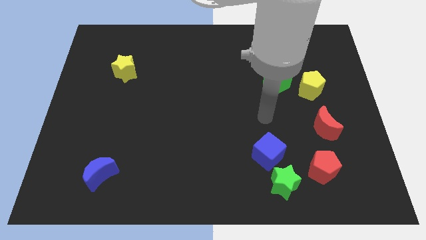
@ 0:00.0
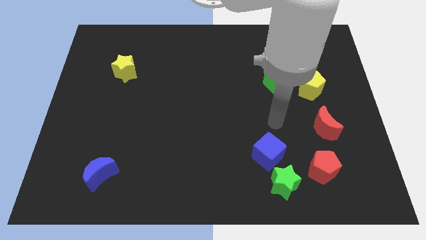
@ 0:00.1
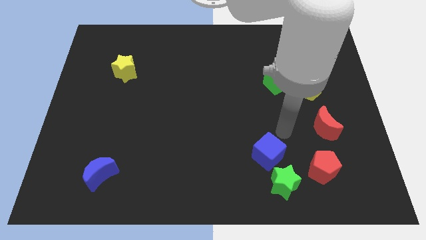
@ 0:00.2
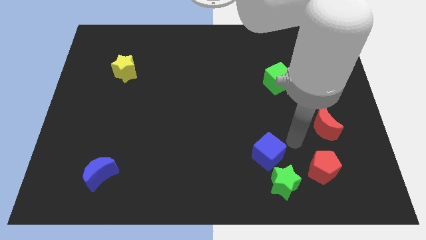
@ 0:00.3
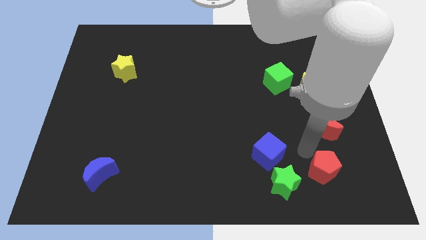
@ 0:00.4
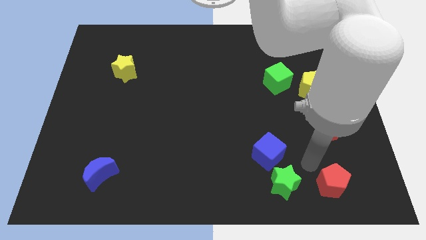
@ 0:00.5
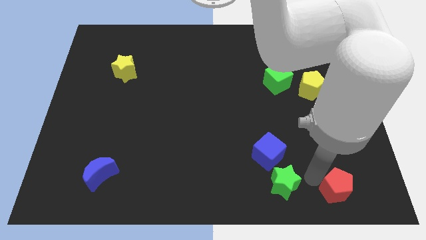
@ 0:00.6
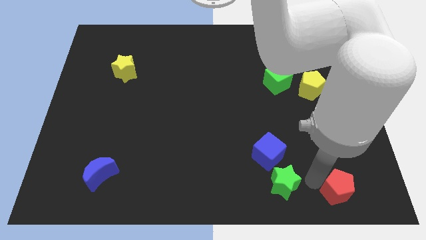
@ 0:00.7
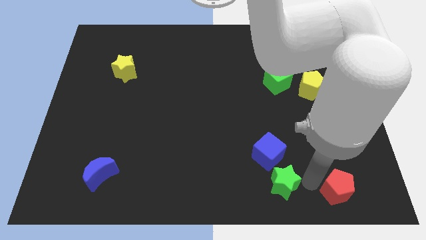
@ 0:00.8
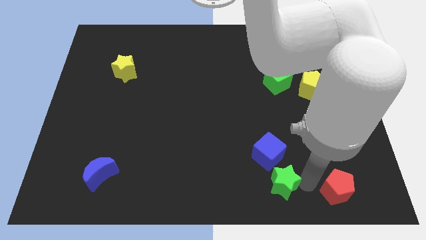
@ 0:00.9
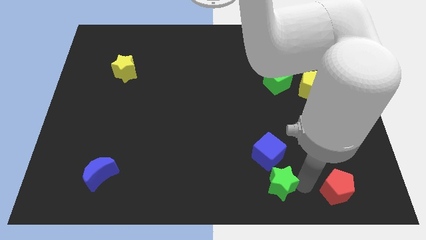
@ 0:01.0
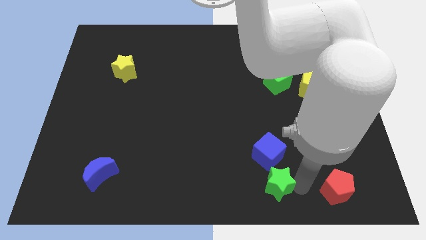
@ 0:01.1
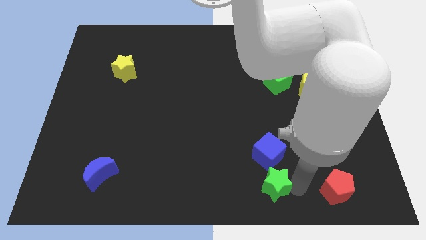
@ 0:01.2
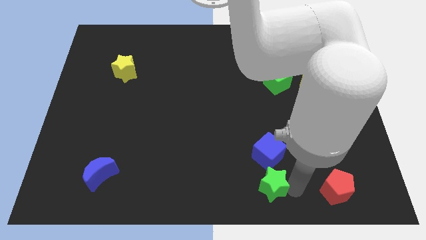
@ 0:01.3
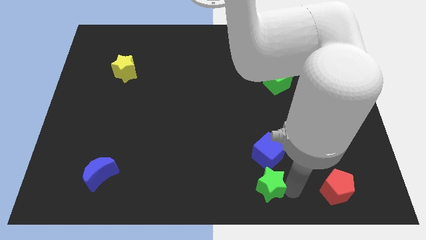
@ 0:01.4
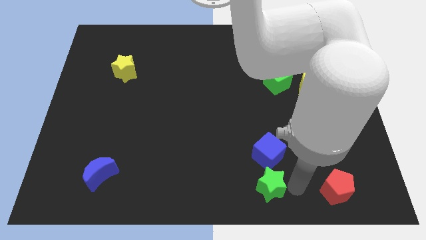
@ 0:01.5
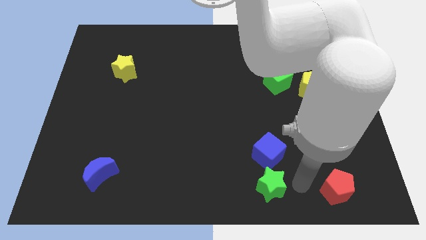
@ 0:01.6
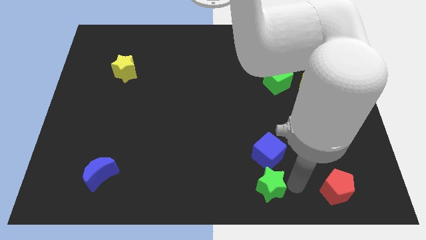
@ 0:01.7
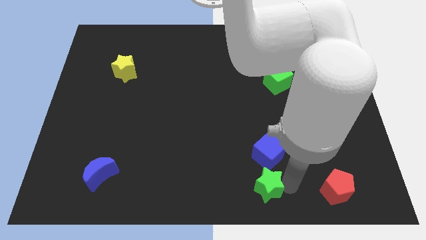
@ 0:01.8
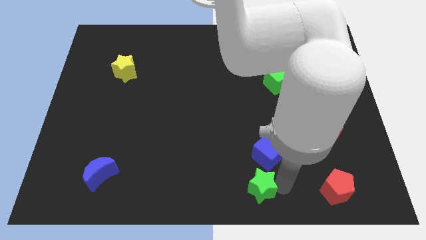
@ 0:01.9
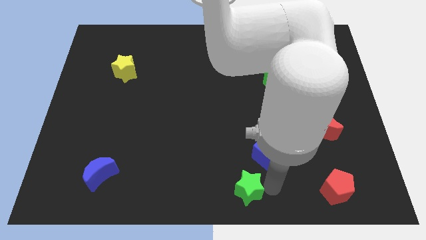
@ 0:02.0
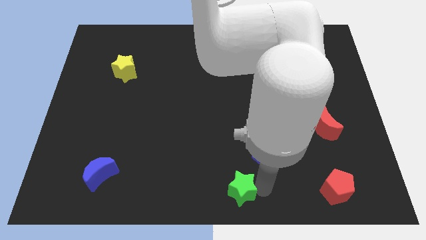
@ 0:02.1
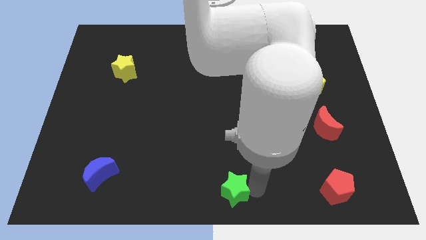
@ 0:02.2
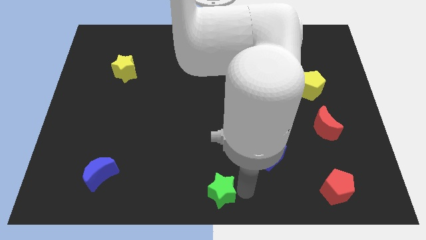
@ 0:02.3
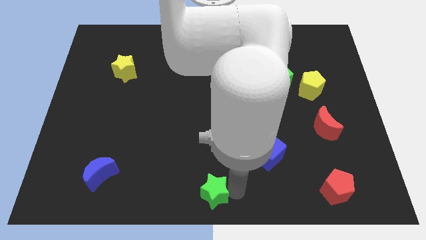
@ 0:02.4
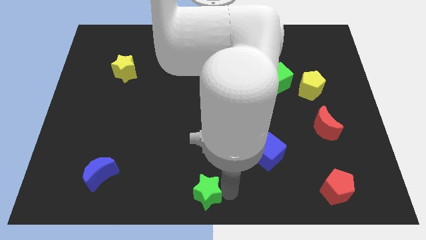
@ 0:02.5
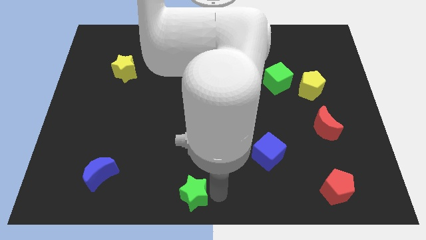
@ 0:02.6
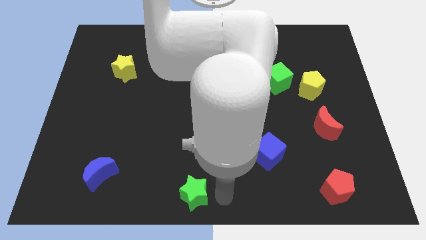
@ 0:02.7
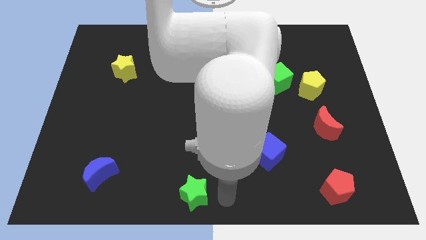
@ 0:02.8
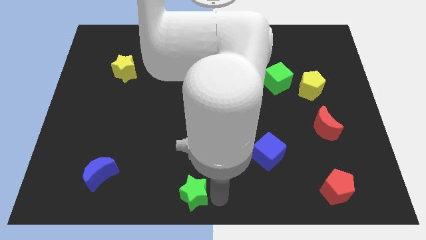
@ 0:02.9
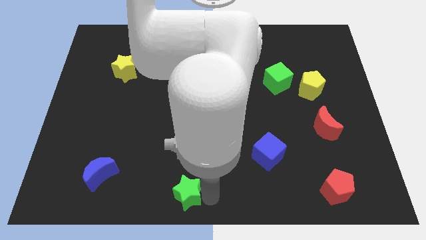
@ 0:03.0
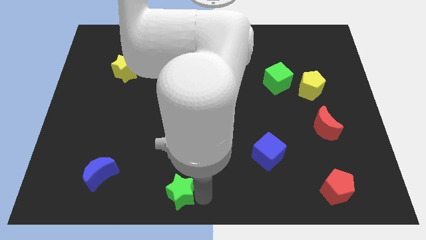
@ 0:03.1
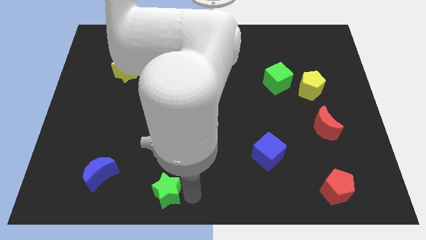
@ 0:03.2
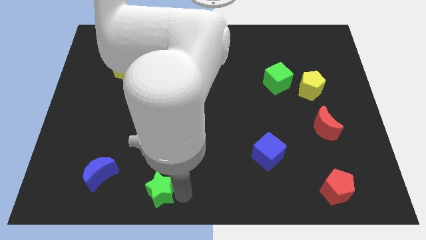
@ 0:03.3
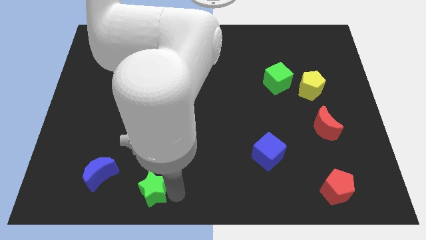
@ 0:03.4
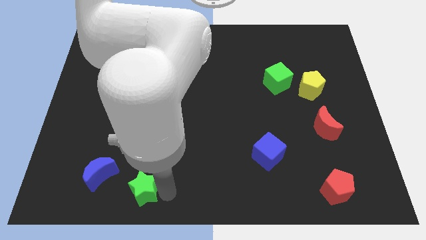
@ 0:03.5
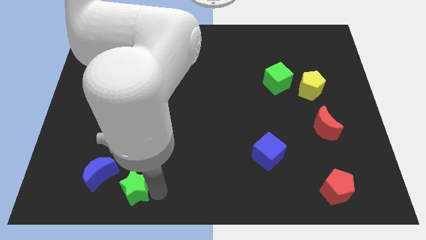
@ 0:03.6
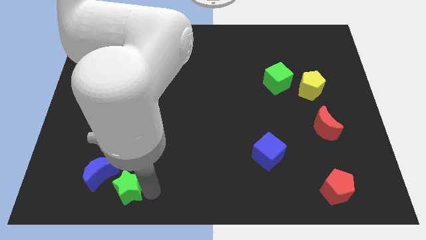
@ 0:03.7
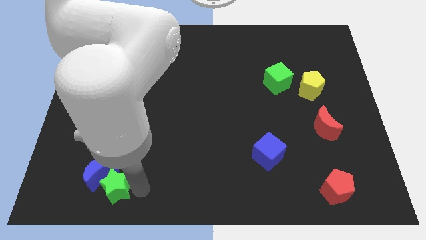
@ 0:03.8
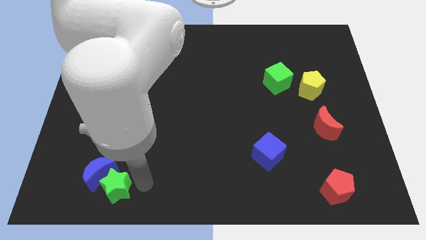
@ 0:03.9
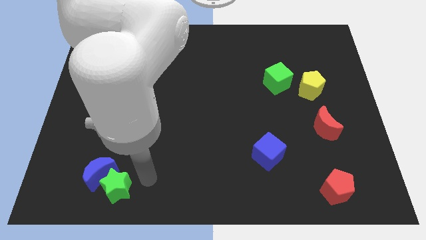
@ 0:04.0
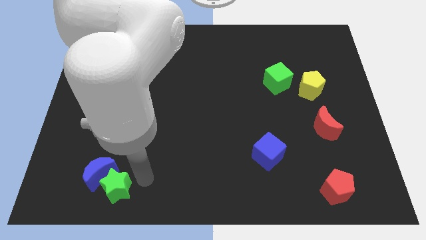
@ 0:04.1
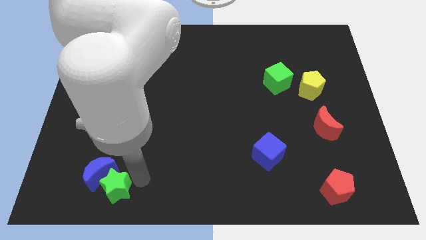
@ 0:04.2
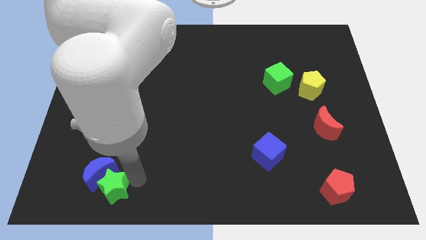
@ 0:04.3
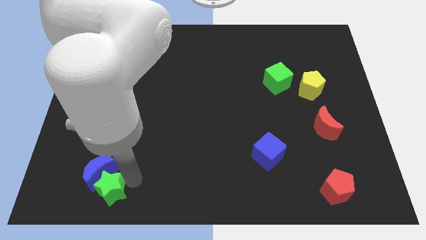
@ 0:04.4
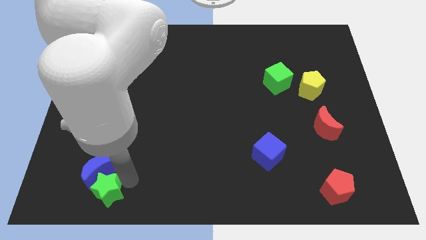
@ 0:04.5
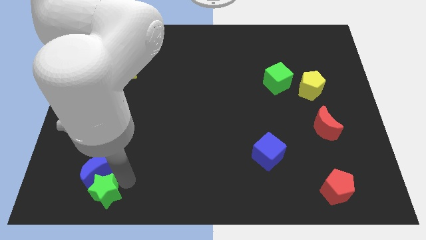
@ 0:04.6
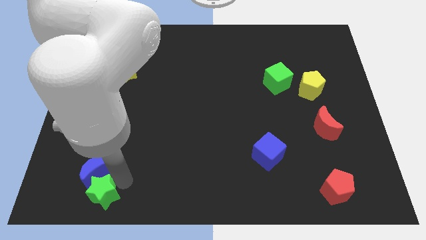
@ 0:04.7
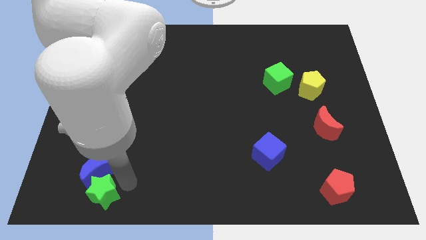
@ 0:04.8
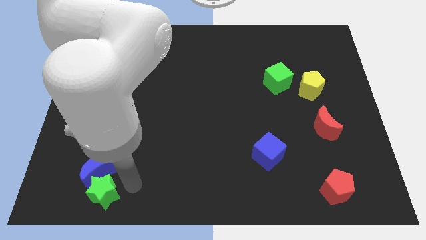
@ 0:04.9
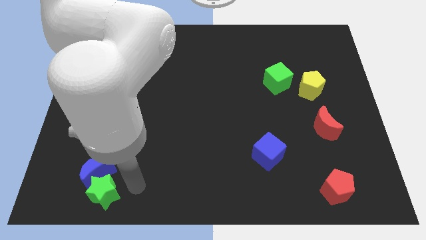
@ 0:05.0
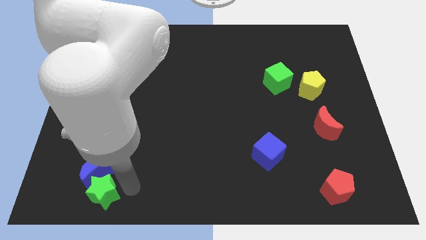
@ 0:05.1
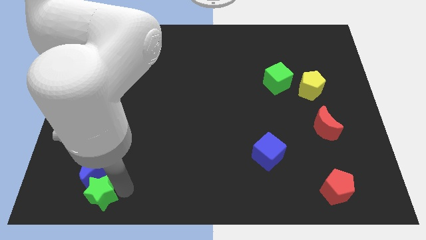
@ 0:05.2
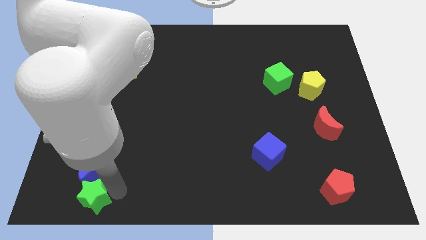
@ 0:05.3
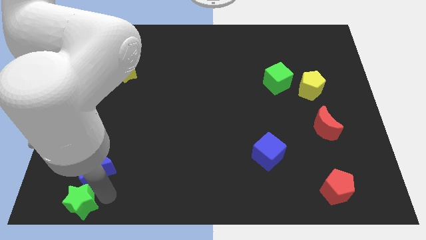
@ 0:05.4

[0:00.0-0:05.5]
put the green star to the bottom left

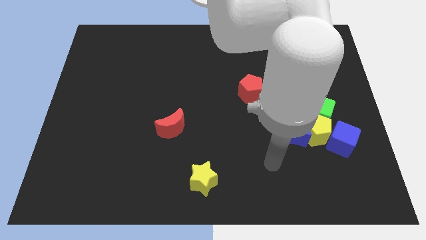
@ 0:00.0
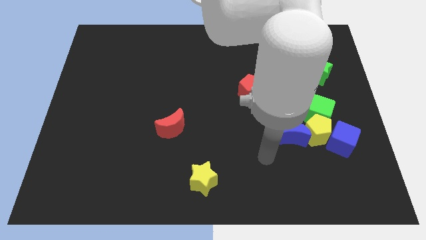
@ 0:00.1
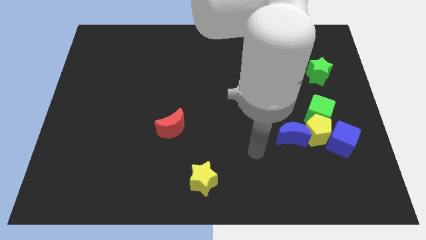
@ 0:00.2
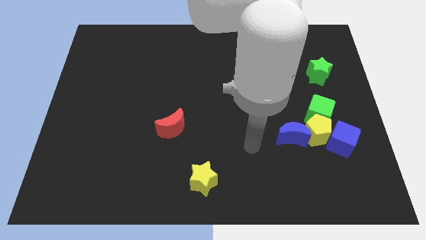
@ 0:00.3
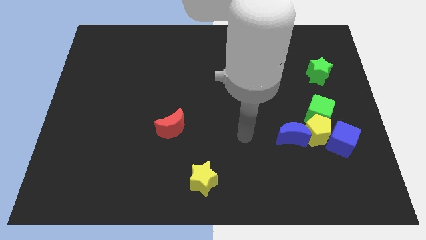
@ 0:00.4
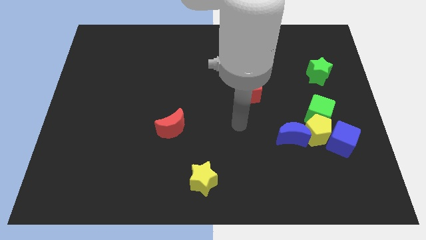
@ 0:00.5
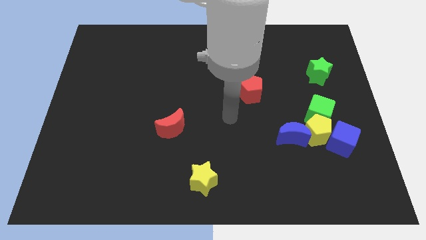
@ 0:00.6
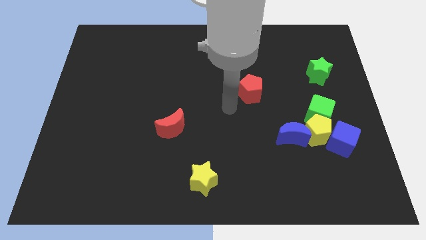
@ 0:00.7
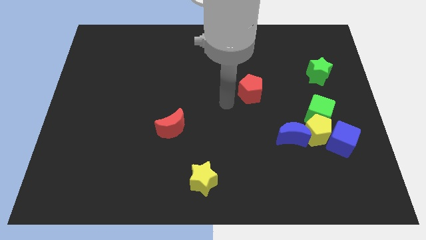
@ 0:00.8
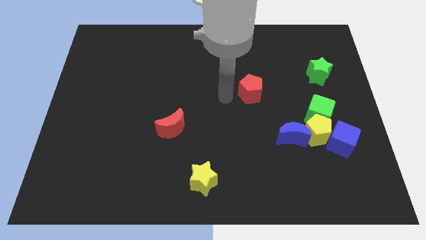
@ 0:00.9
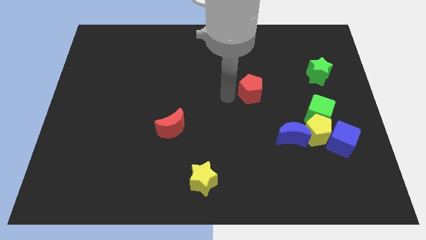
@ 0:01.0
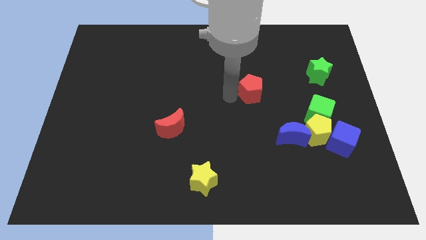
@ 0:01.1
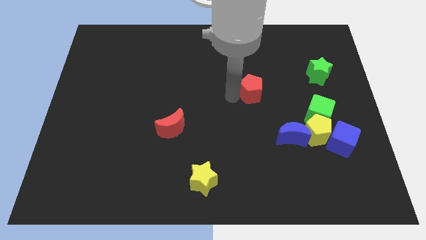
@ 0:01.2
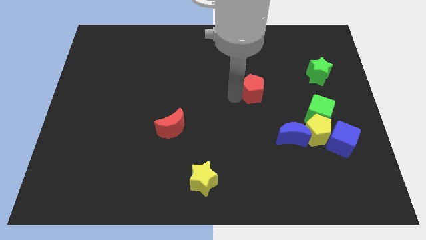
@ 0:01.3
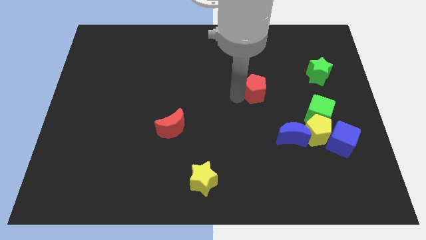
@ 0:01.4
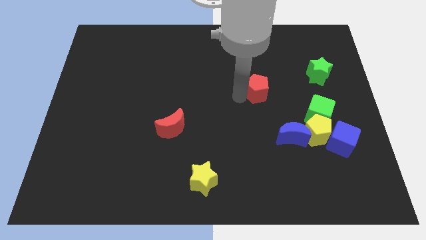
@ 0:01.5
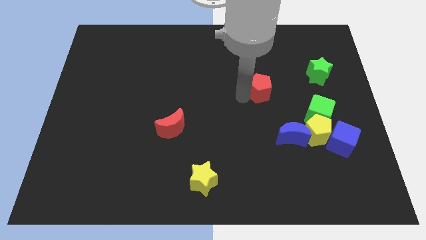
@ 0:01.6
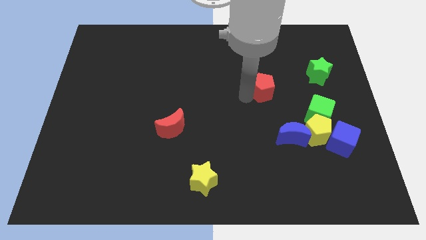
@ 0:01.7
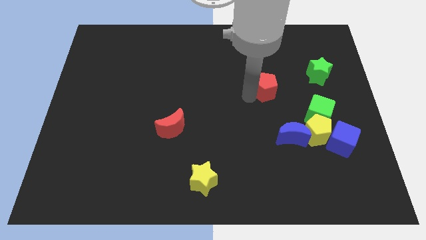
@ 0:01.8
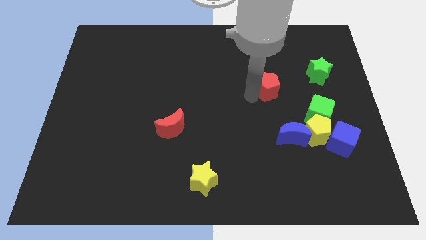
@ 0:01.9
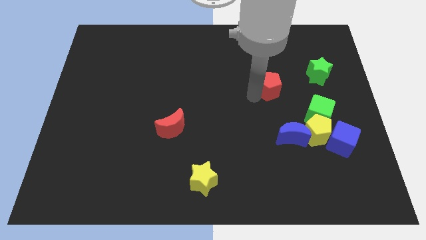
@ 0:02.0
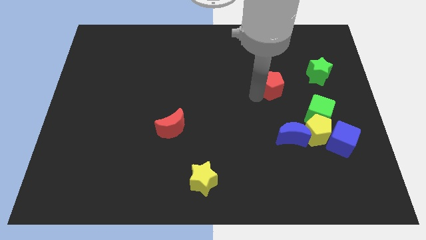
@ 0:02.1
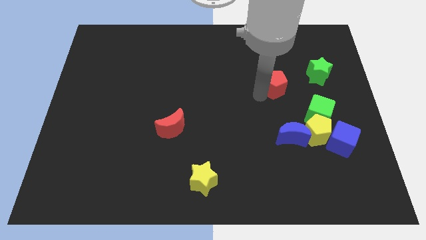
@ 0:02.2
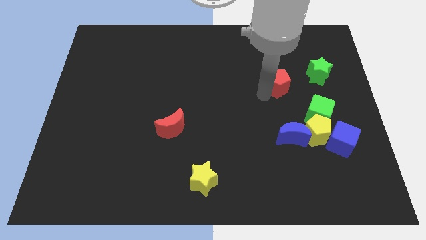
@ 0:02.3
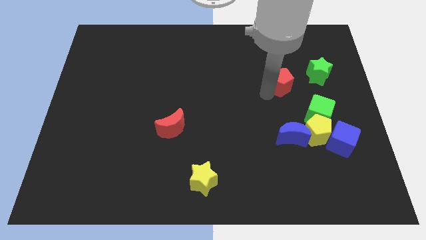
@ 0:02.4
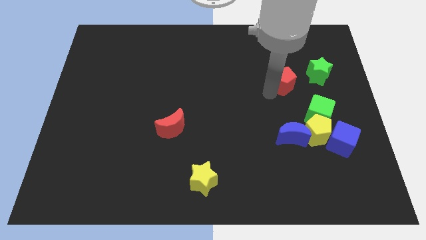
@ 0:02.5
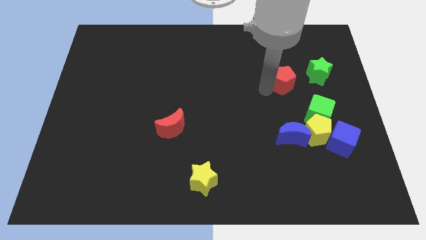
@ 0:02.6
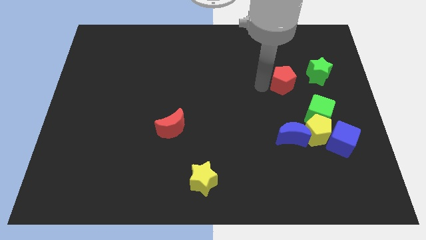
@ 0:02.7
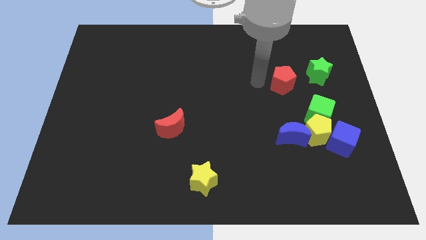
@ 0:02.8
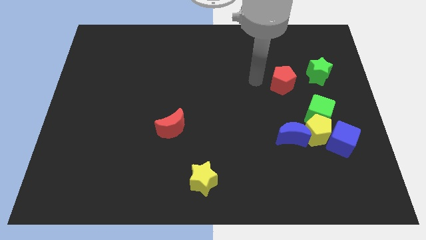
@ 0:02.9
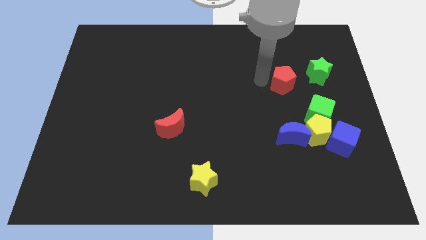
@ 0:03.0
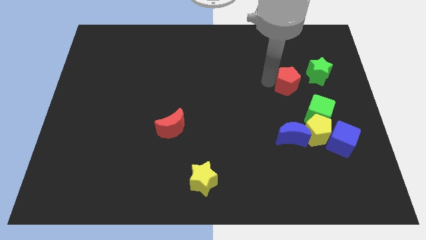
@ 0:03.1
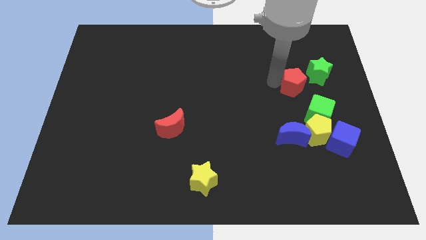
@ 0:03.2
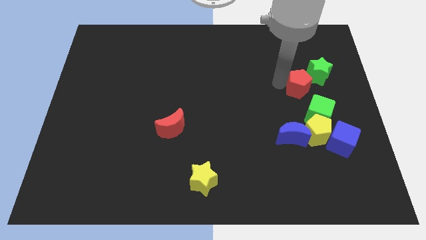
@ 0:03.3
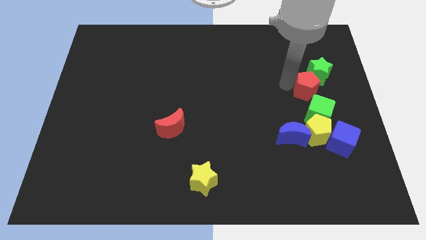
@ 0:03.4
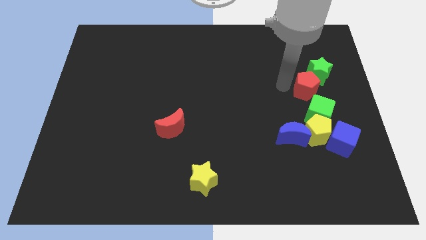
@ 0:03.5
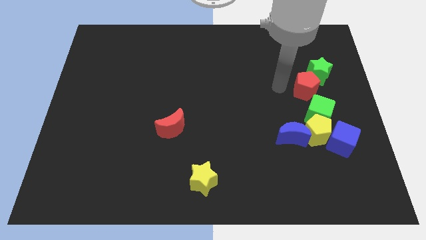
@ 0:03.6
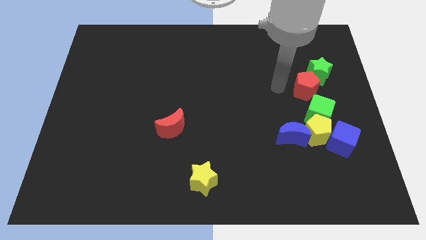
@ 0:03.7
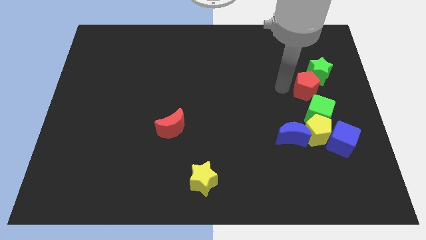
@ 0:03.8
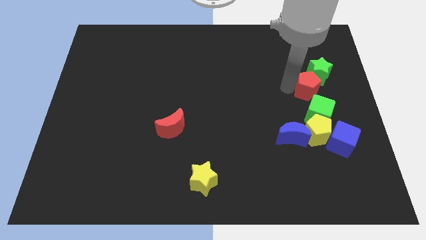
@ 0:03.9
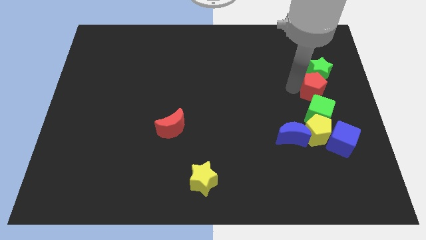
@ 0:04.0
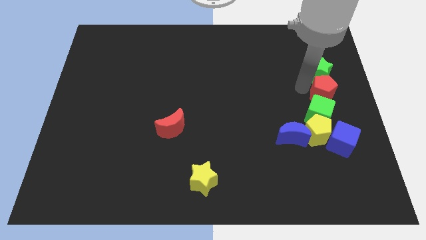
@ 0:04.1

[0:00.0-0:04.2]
push the red pentagon to the right side of the board
